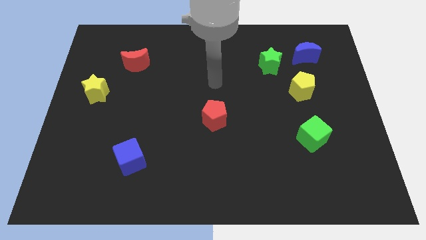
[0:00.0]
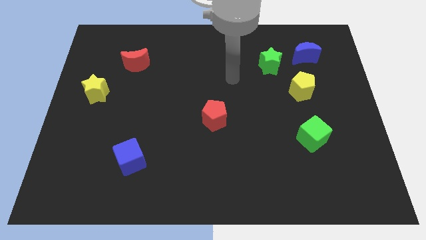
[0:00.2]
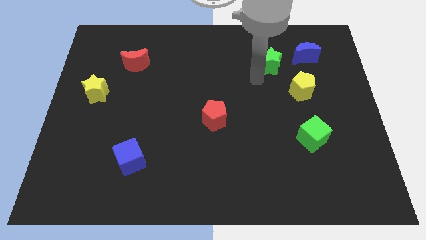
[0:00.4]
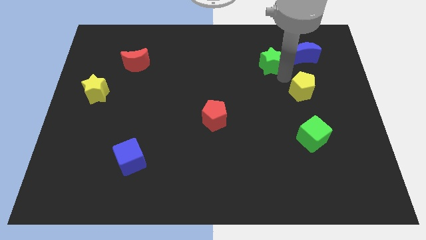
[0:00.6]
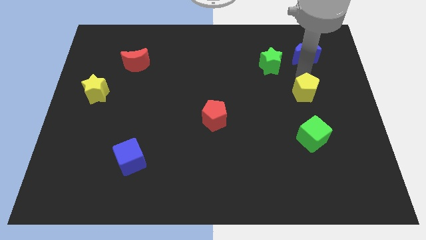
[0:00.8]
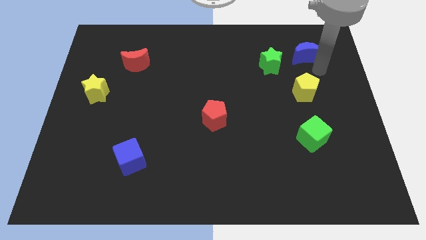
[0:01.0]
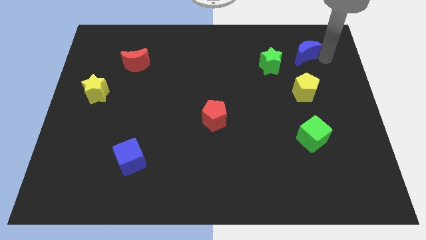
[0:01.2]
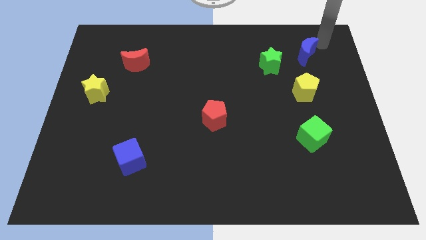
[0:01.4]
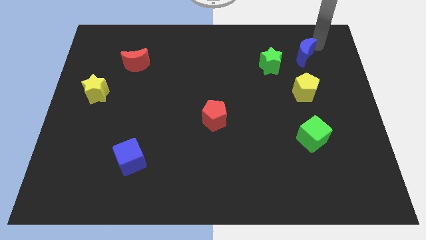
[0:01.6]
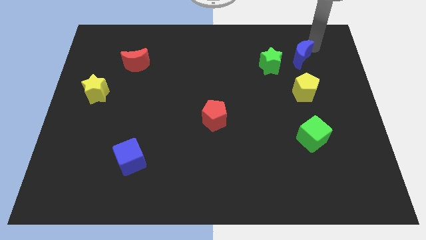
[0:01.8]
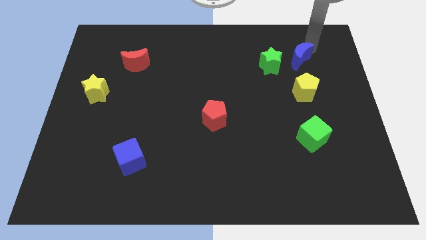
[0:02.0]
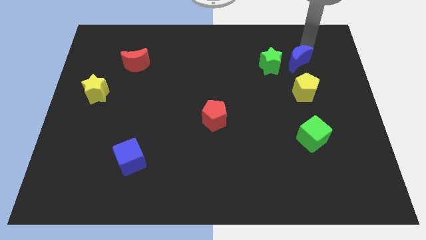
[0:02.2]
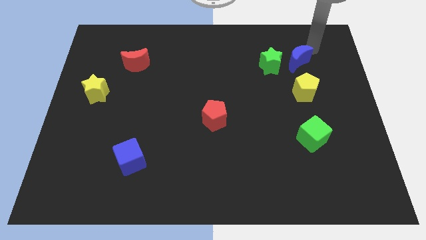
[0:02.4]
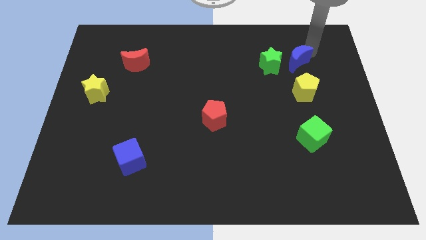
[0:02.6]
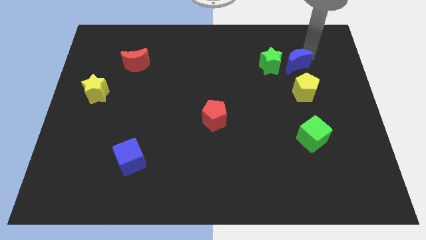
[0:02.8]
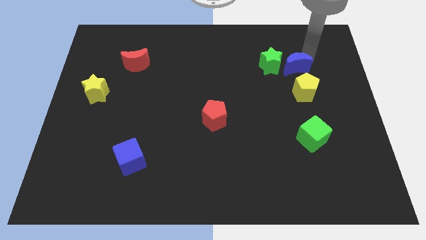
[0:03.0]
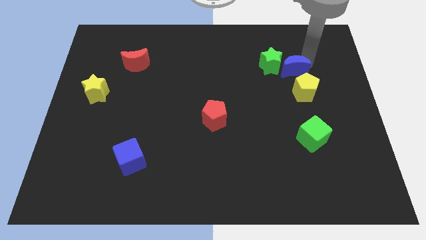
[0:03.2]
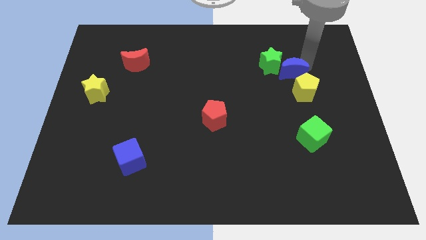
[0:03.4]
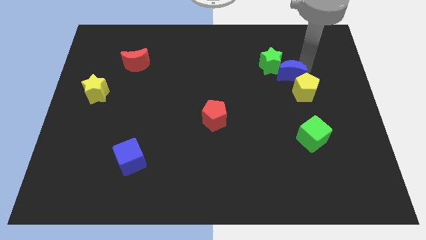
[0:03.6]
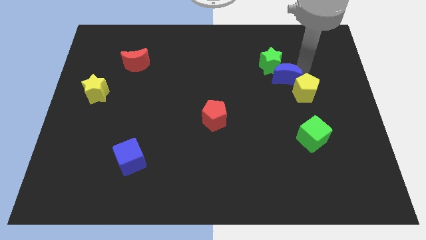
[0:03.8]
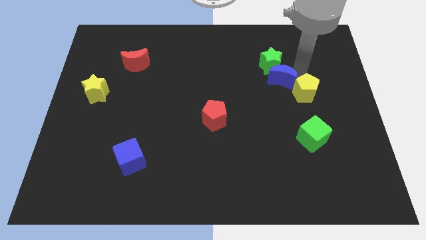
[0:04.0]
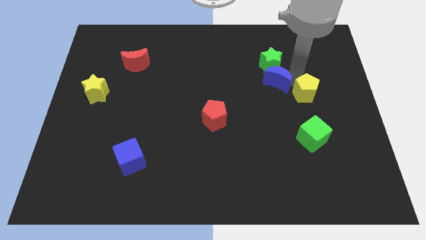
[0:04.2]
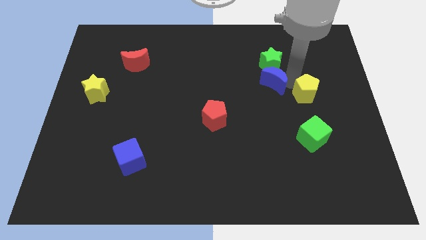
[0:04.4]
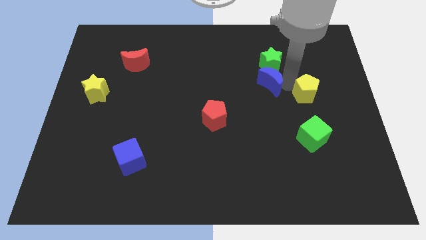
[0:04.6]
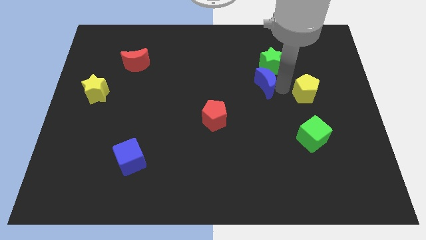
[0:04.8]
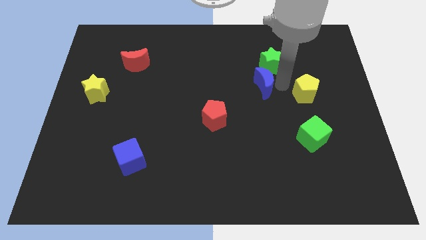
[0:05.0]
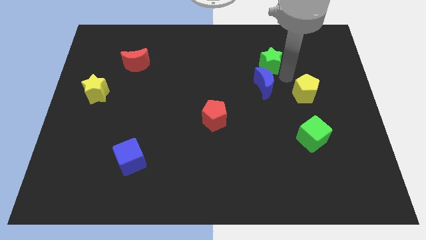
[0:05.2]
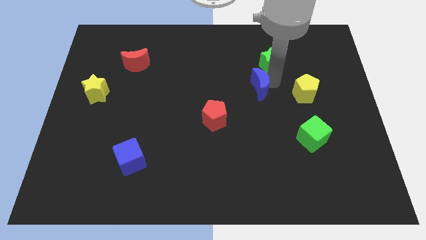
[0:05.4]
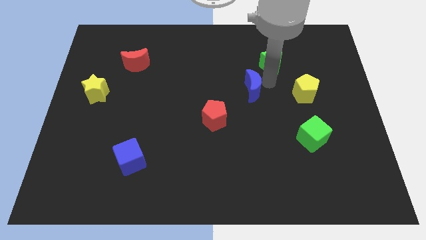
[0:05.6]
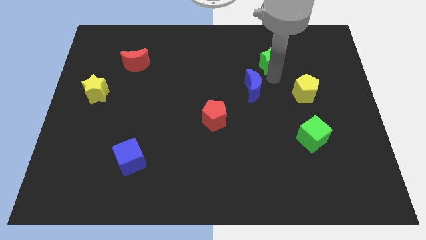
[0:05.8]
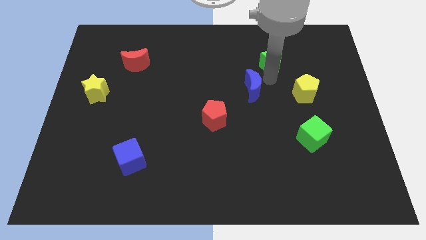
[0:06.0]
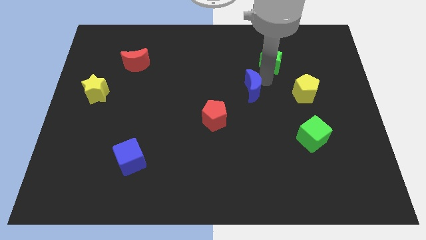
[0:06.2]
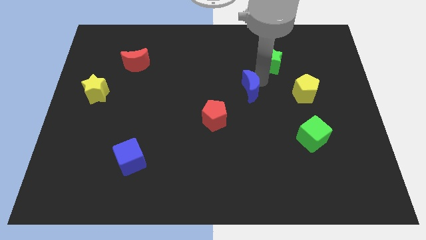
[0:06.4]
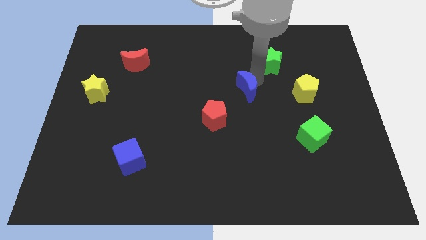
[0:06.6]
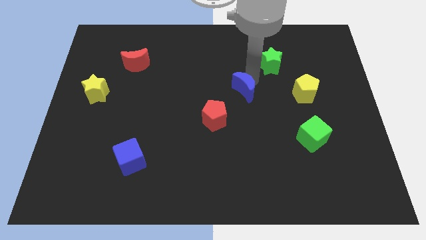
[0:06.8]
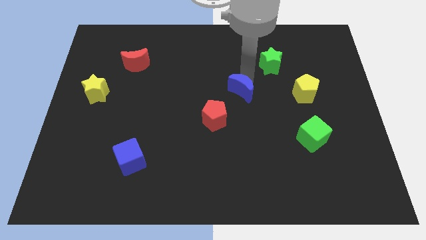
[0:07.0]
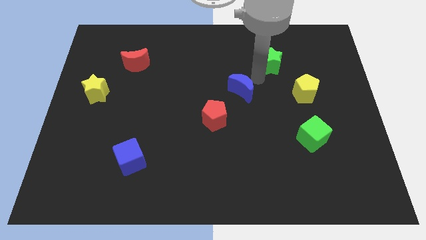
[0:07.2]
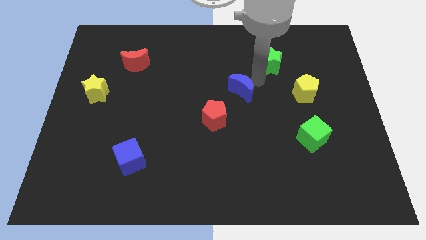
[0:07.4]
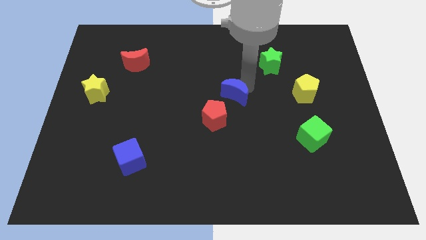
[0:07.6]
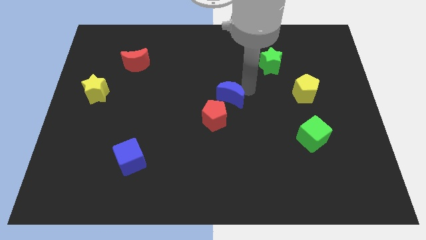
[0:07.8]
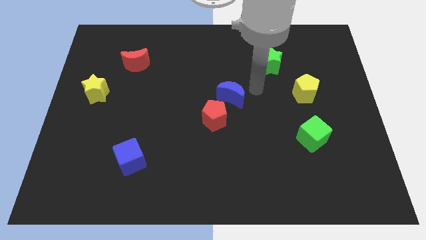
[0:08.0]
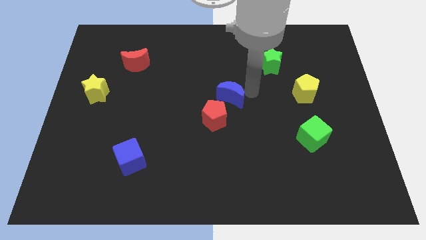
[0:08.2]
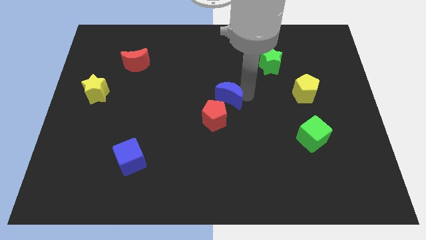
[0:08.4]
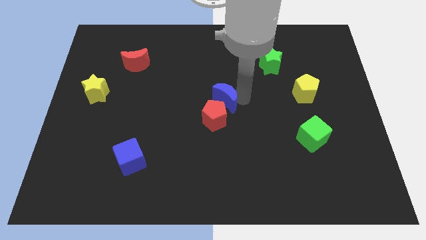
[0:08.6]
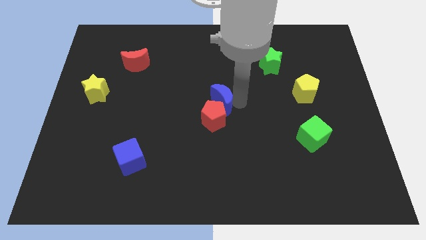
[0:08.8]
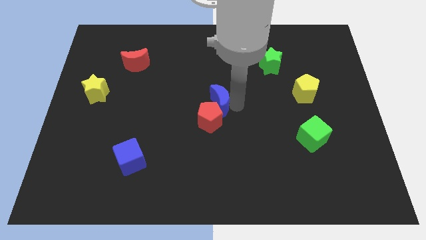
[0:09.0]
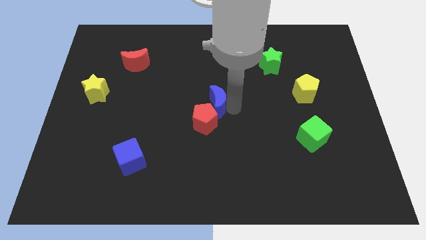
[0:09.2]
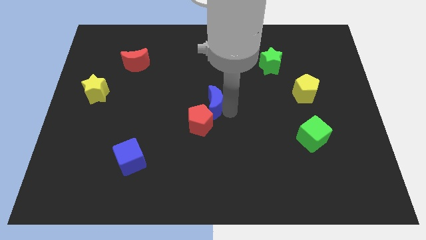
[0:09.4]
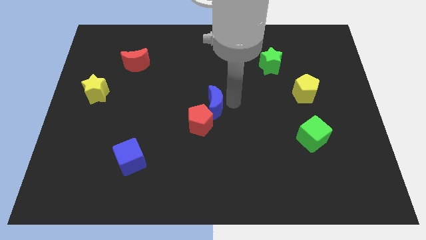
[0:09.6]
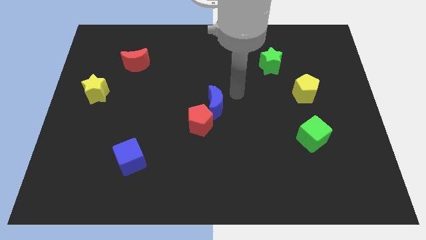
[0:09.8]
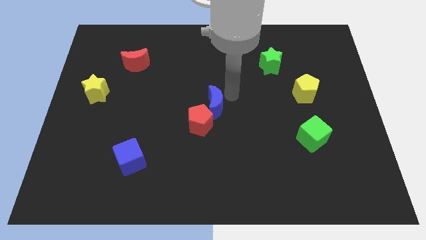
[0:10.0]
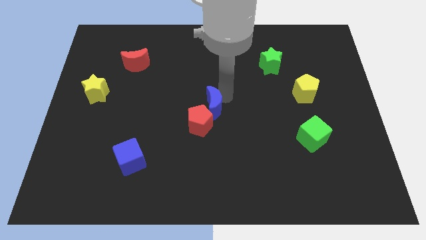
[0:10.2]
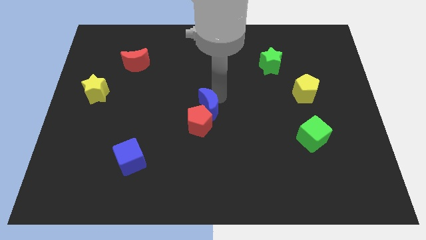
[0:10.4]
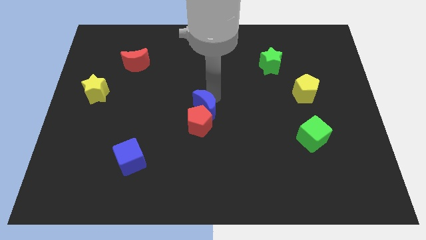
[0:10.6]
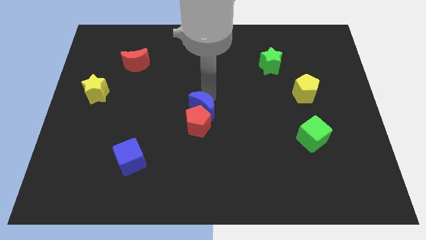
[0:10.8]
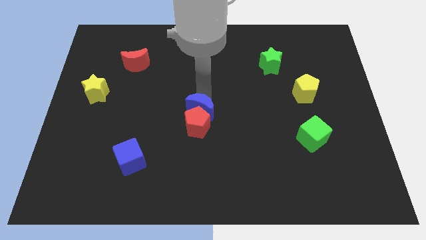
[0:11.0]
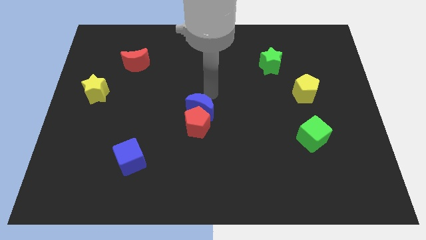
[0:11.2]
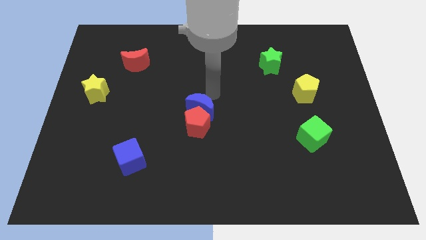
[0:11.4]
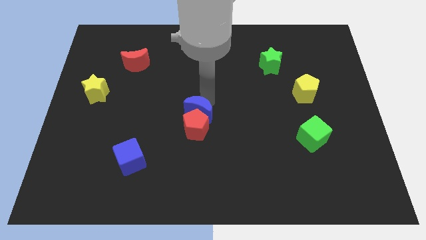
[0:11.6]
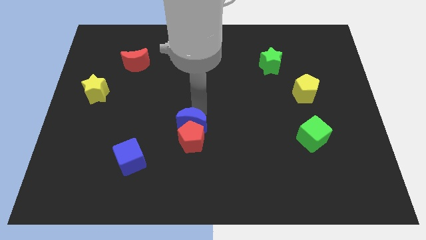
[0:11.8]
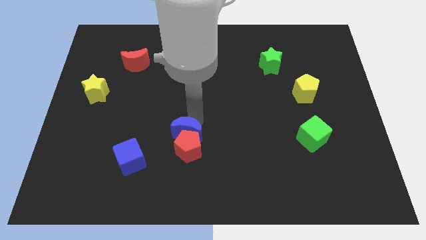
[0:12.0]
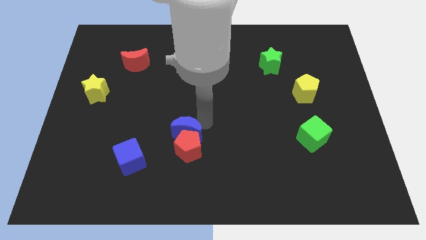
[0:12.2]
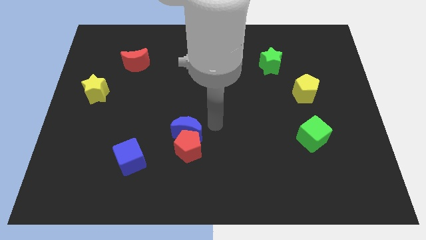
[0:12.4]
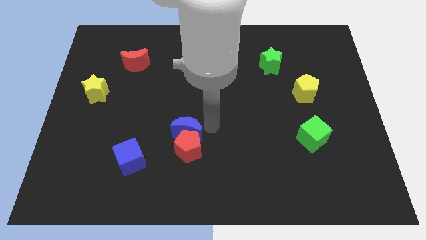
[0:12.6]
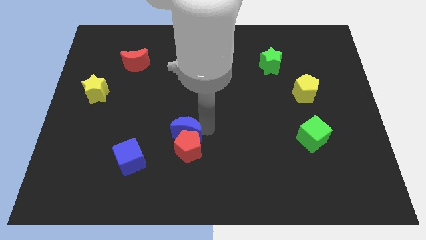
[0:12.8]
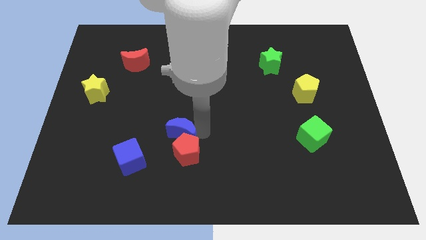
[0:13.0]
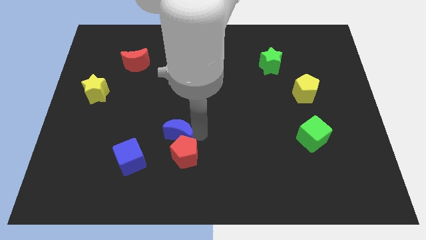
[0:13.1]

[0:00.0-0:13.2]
push the blue moon to the top right side of the blue cube
